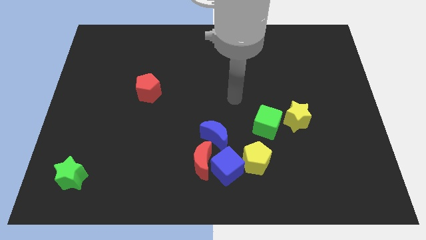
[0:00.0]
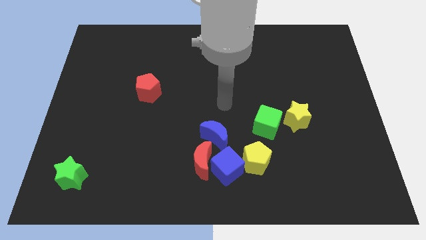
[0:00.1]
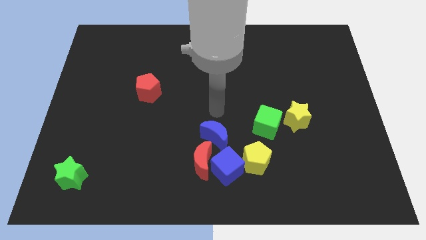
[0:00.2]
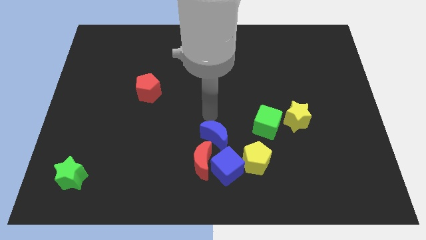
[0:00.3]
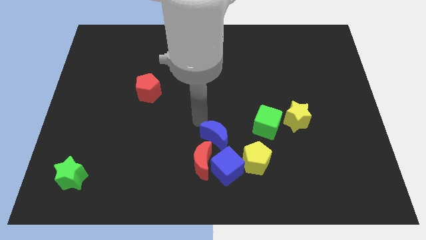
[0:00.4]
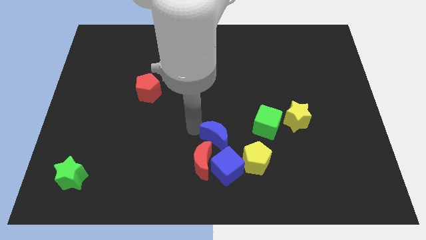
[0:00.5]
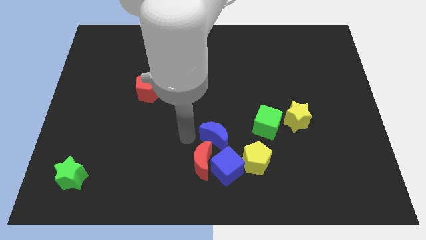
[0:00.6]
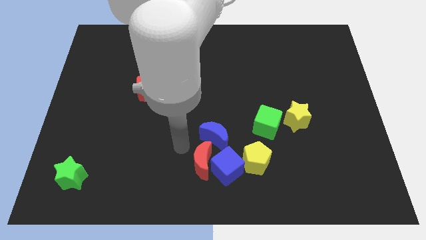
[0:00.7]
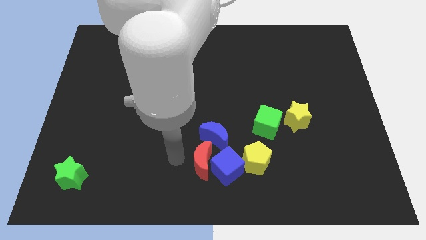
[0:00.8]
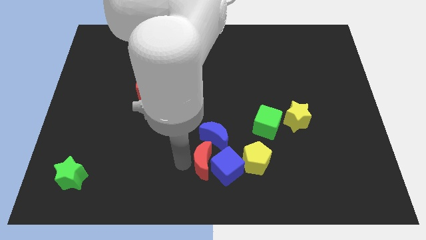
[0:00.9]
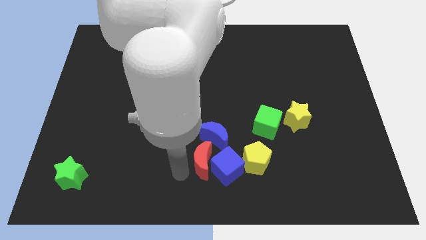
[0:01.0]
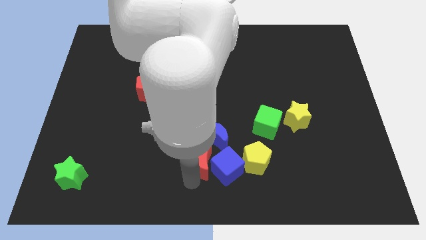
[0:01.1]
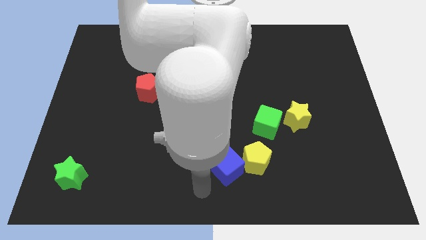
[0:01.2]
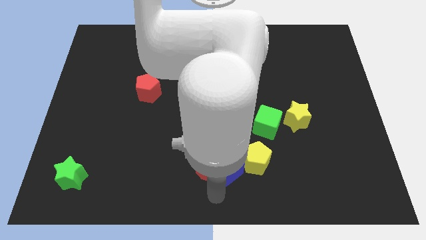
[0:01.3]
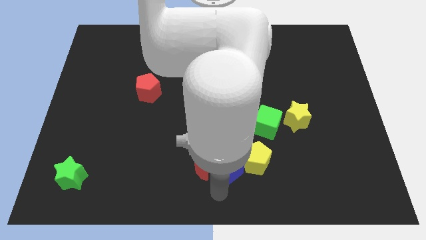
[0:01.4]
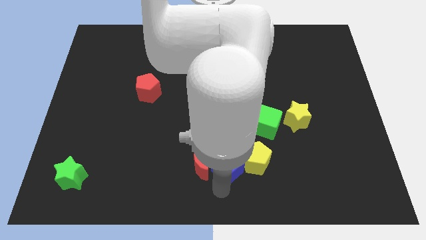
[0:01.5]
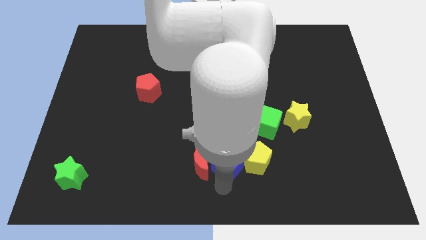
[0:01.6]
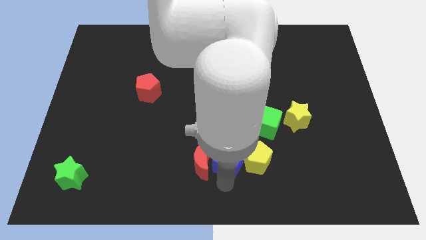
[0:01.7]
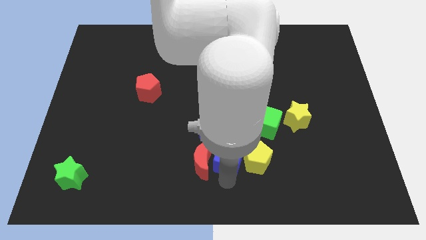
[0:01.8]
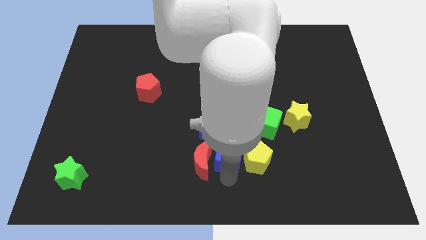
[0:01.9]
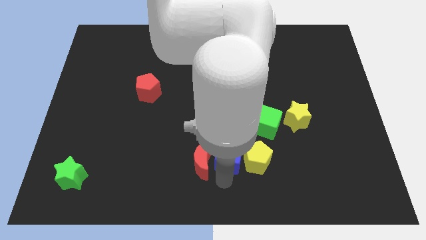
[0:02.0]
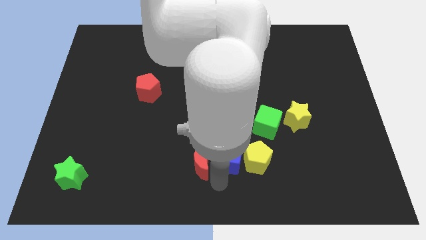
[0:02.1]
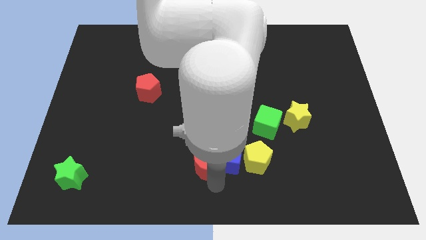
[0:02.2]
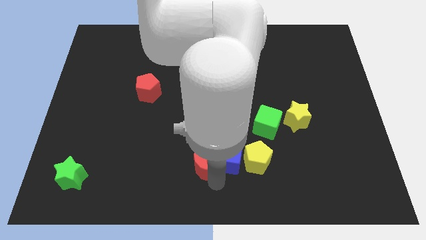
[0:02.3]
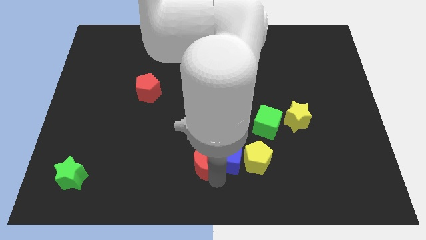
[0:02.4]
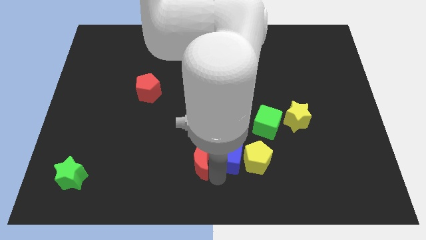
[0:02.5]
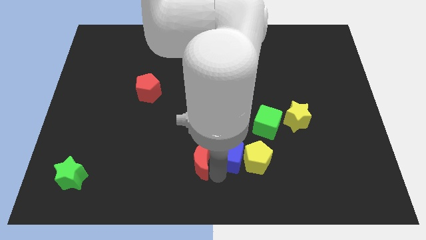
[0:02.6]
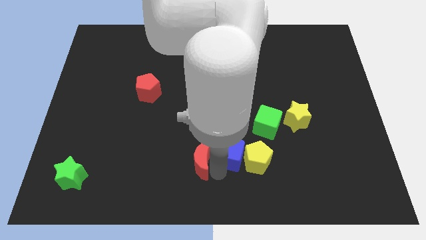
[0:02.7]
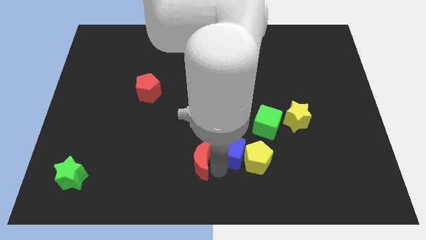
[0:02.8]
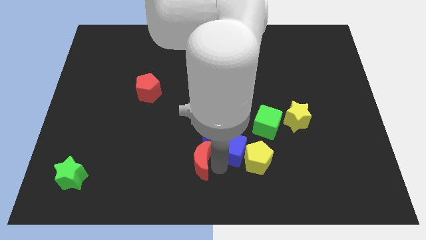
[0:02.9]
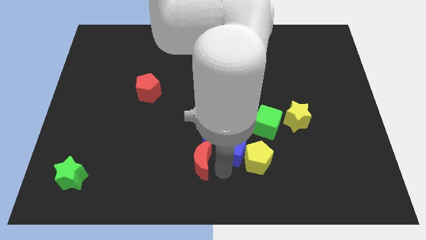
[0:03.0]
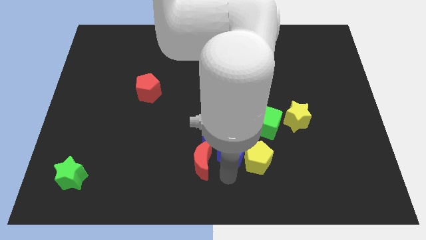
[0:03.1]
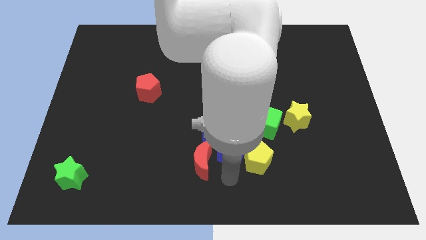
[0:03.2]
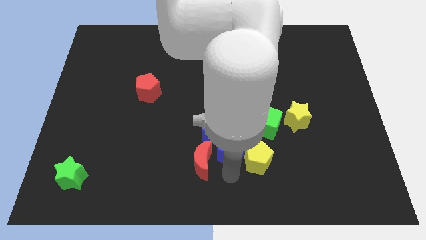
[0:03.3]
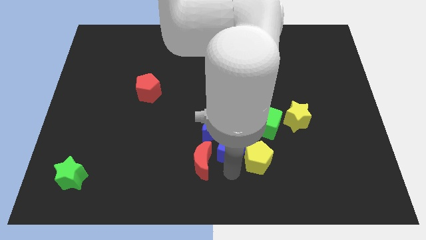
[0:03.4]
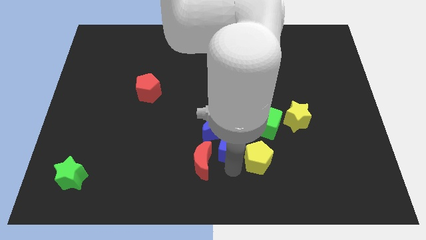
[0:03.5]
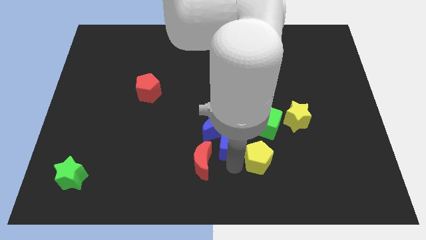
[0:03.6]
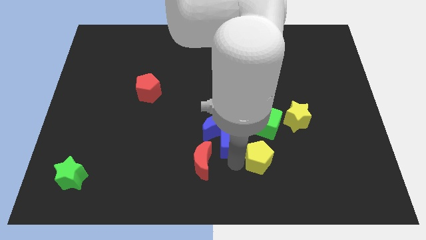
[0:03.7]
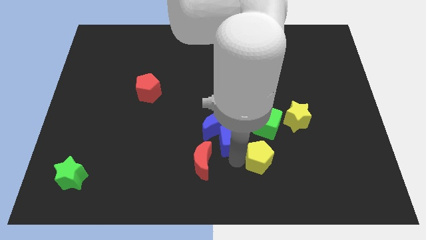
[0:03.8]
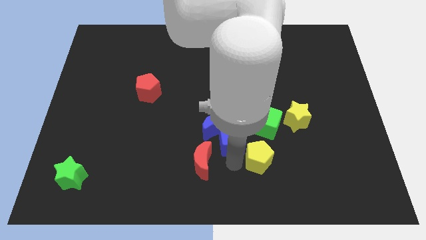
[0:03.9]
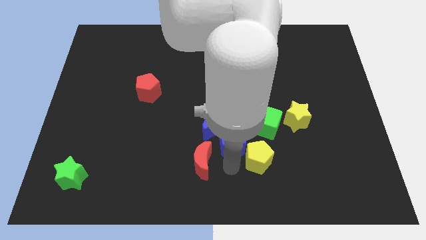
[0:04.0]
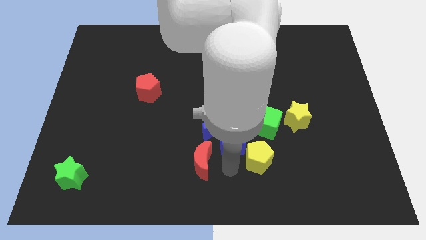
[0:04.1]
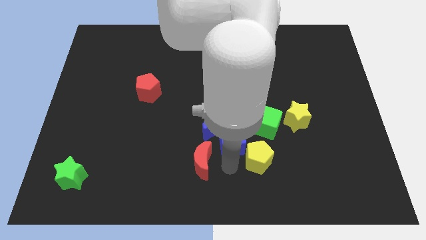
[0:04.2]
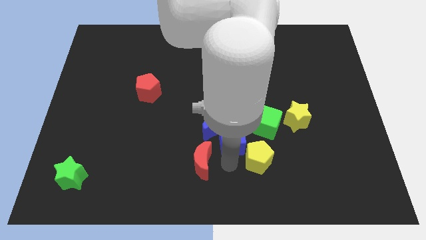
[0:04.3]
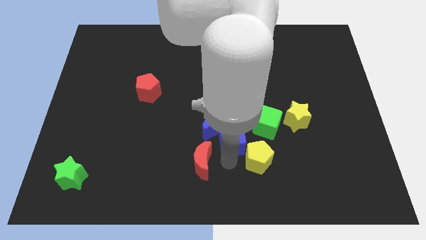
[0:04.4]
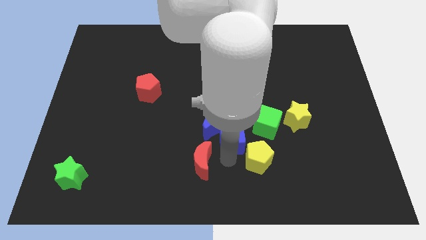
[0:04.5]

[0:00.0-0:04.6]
slide the blue cube upwards slightly

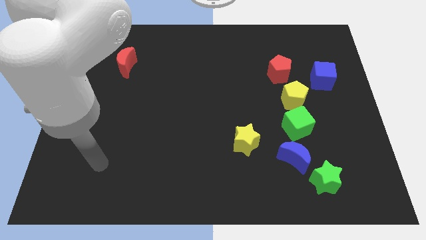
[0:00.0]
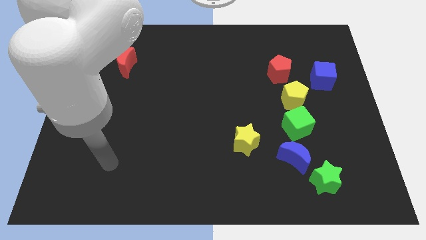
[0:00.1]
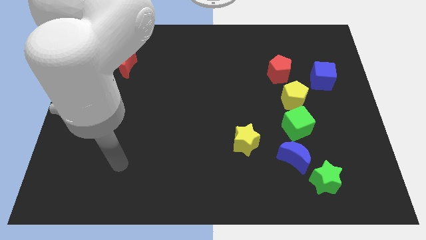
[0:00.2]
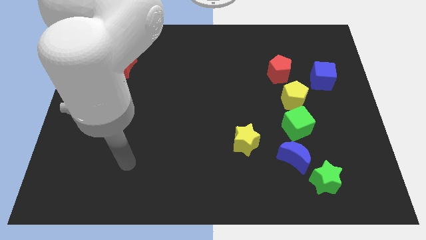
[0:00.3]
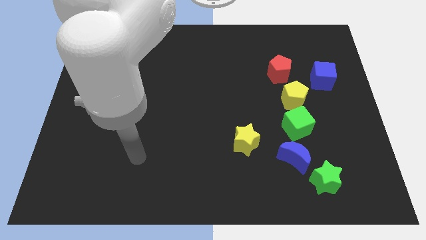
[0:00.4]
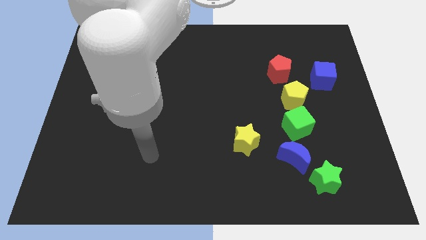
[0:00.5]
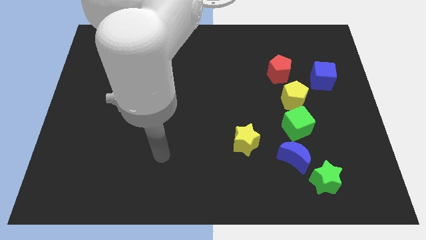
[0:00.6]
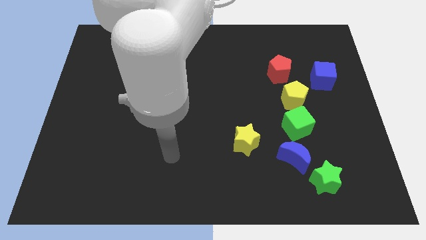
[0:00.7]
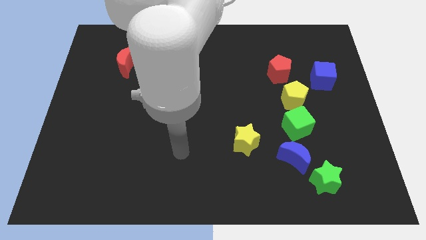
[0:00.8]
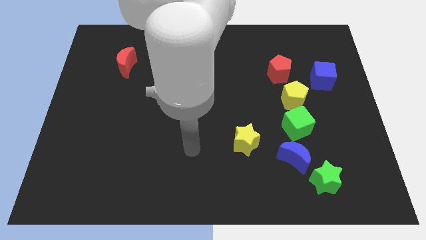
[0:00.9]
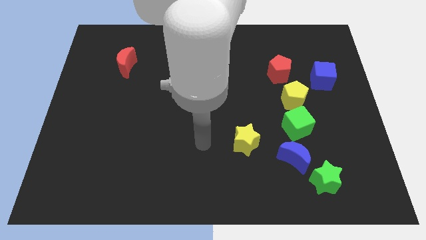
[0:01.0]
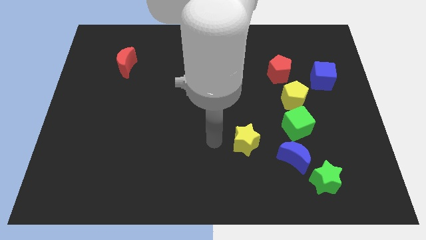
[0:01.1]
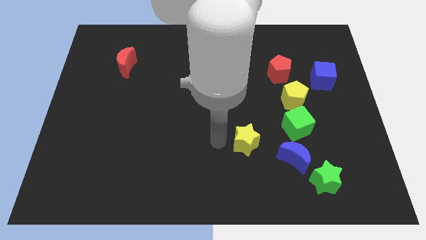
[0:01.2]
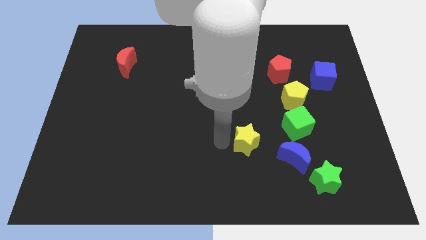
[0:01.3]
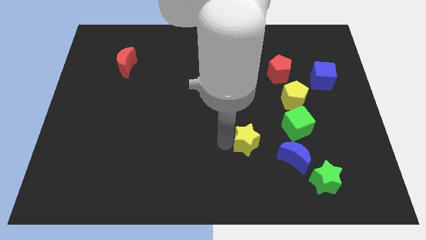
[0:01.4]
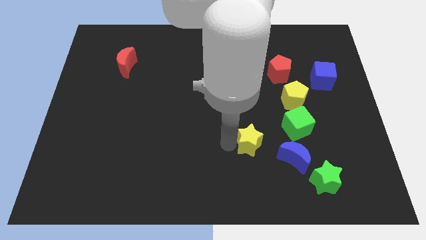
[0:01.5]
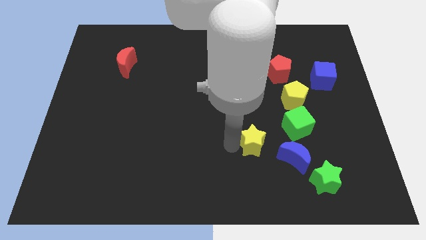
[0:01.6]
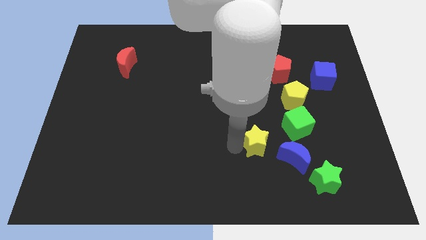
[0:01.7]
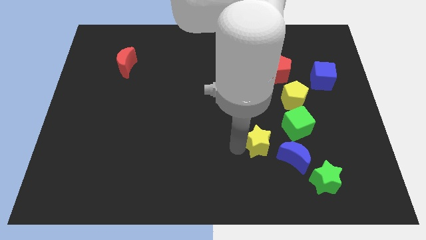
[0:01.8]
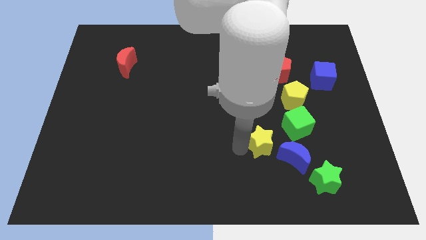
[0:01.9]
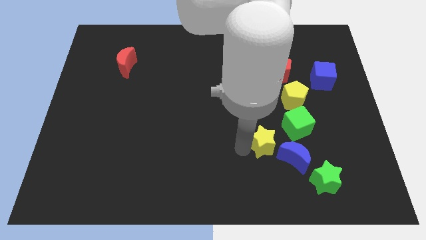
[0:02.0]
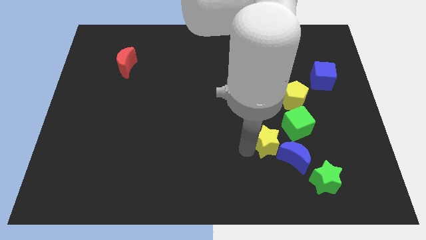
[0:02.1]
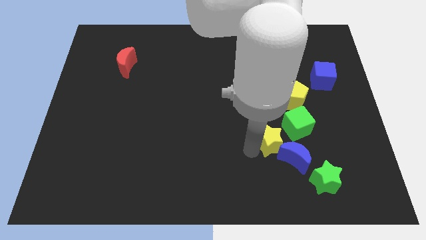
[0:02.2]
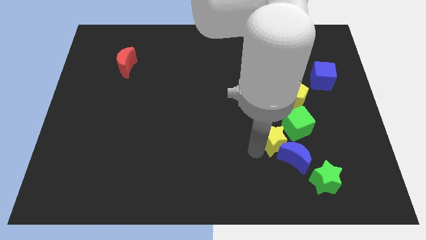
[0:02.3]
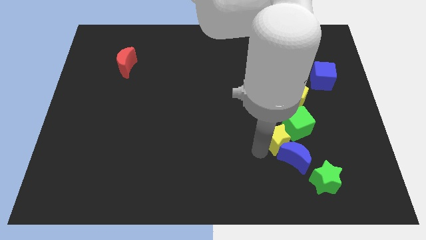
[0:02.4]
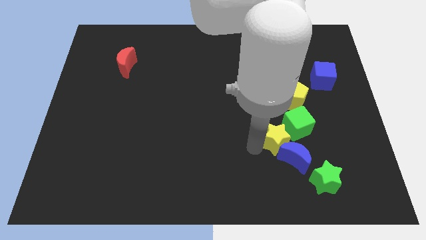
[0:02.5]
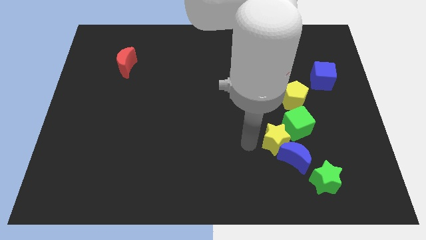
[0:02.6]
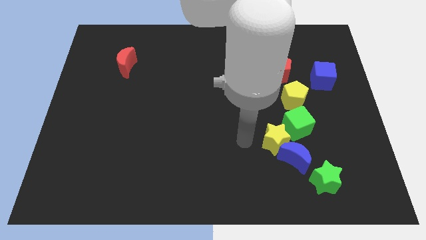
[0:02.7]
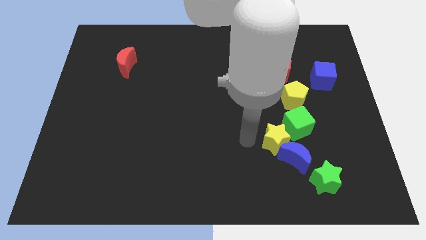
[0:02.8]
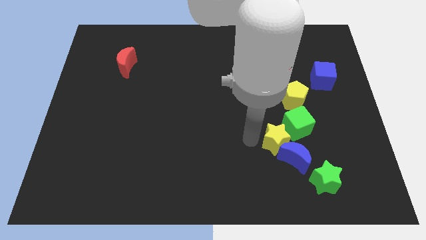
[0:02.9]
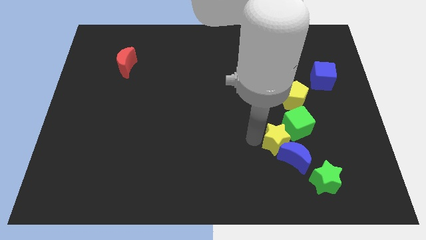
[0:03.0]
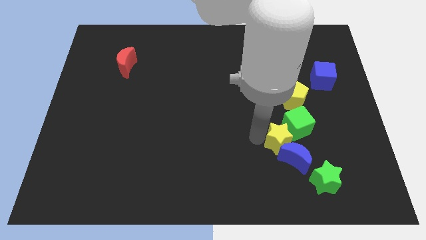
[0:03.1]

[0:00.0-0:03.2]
move the yellow star a little to the right
